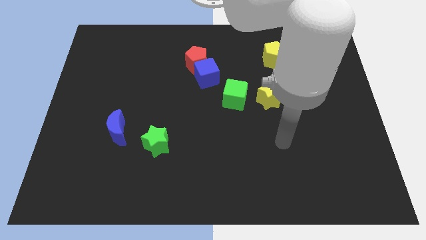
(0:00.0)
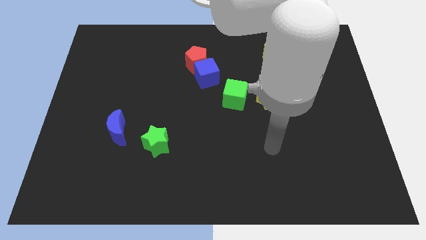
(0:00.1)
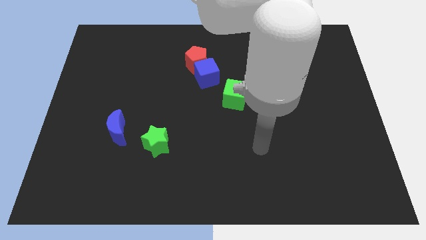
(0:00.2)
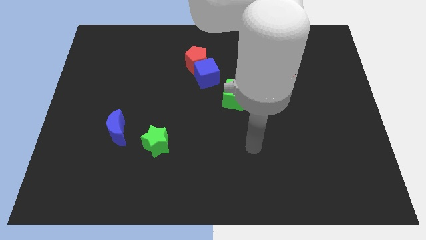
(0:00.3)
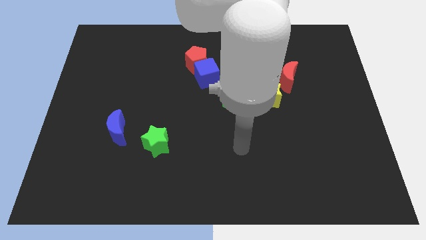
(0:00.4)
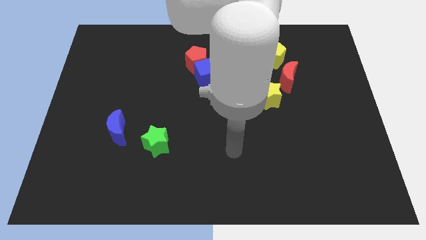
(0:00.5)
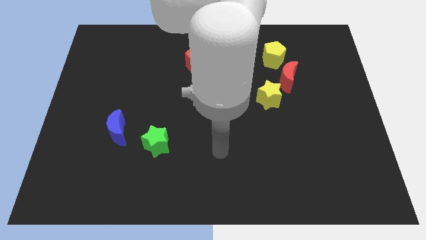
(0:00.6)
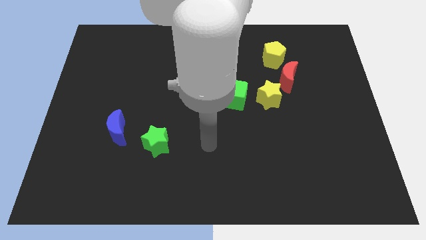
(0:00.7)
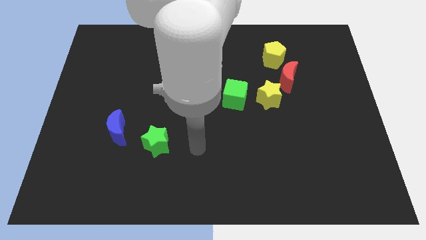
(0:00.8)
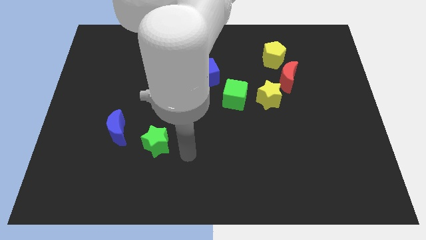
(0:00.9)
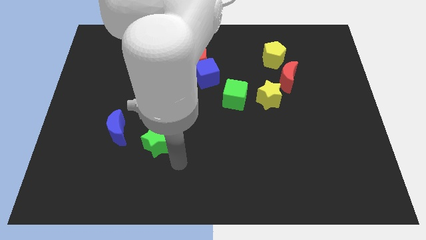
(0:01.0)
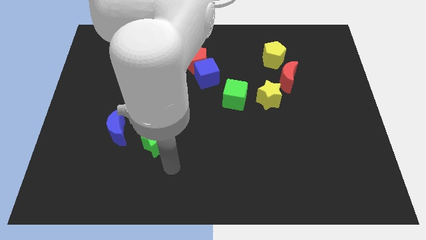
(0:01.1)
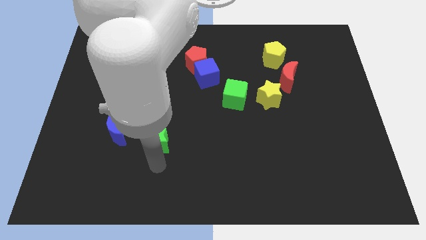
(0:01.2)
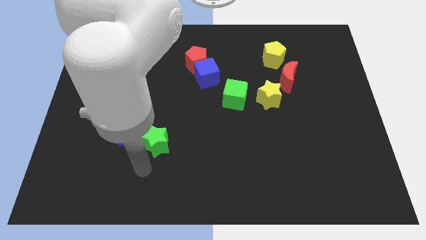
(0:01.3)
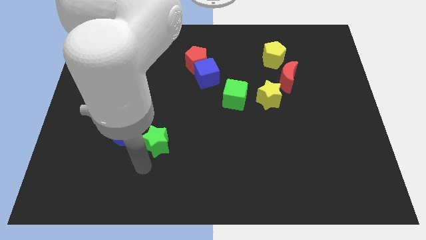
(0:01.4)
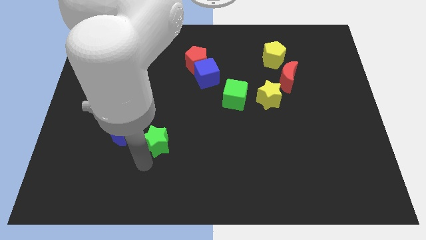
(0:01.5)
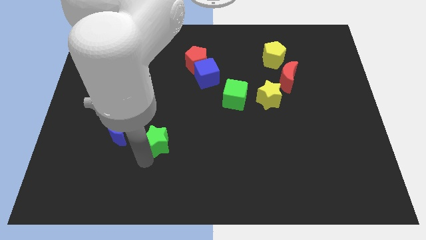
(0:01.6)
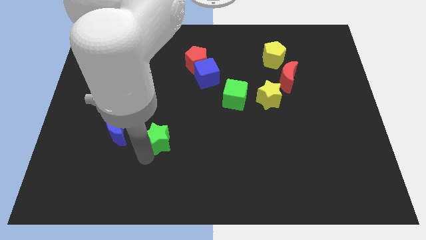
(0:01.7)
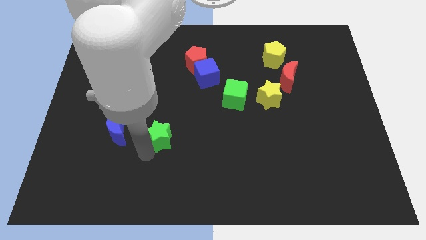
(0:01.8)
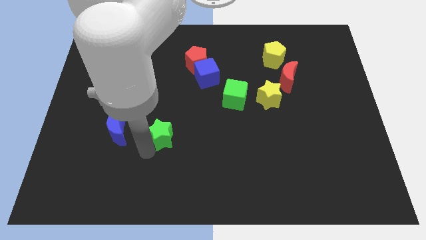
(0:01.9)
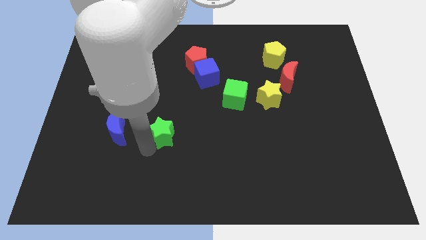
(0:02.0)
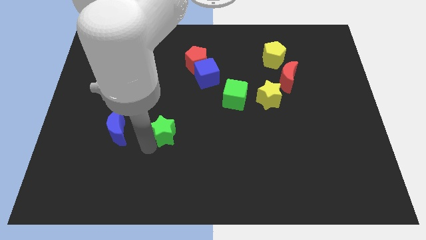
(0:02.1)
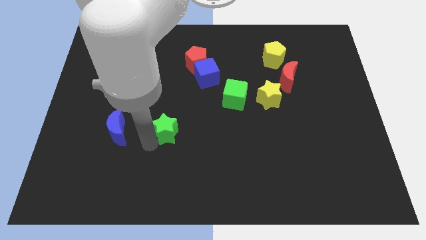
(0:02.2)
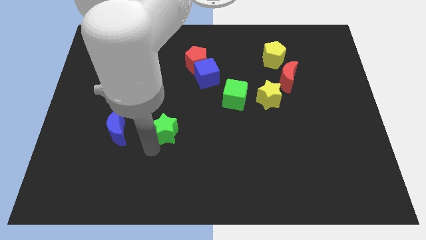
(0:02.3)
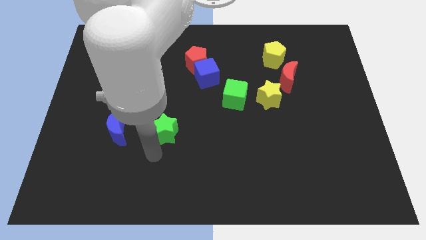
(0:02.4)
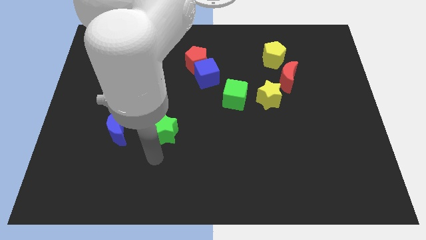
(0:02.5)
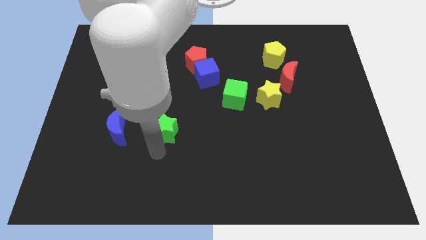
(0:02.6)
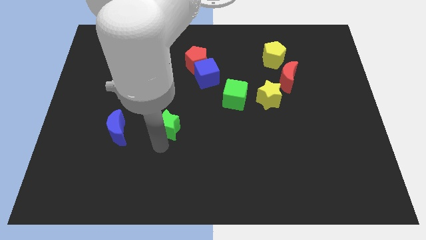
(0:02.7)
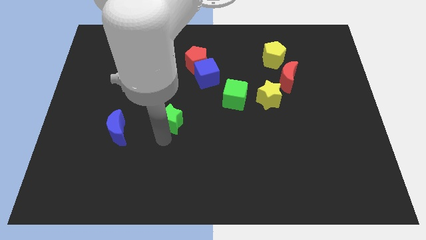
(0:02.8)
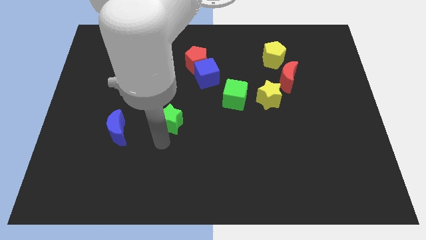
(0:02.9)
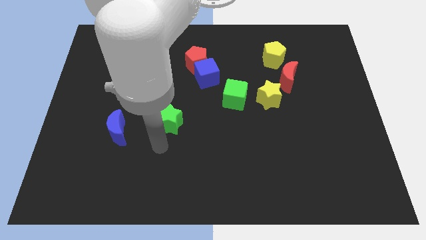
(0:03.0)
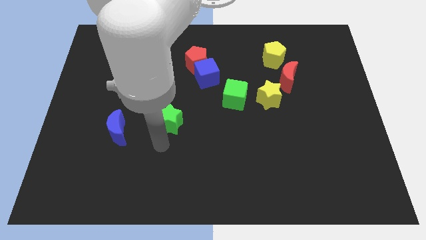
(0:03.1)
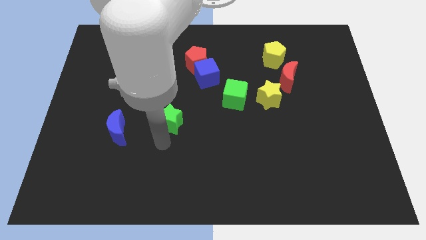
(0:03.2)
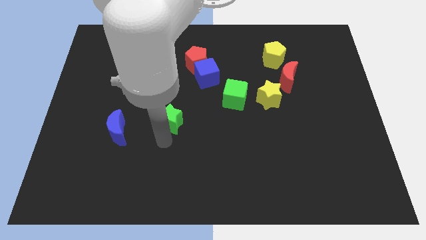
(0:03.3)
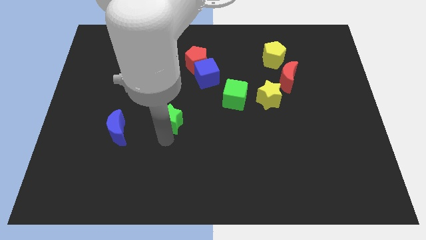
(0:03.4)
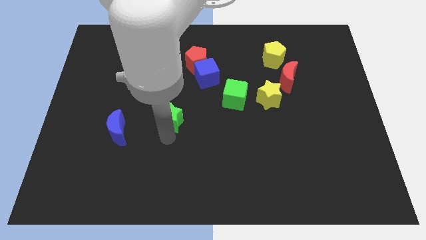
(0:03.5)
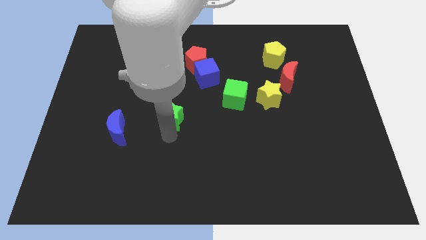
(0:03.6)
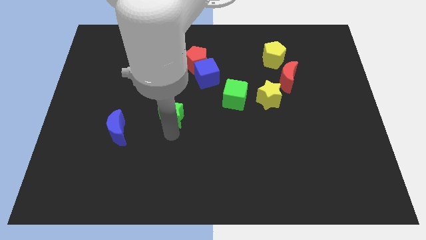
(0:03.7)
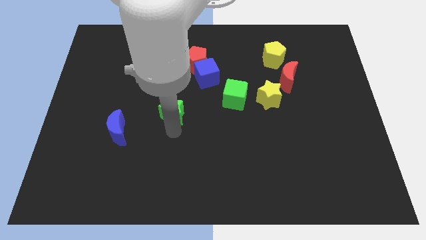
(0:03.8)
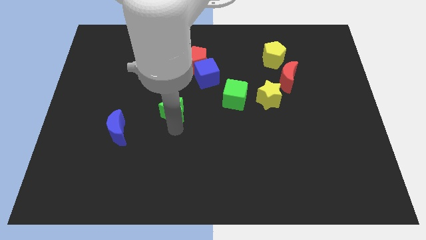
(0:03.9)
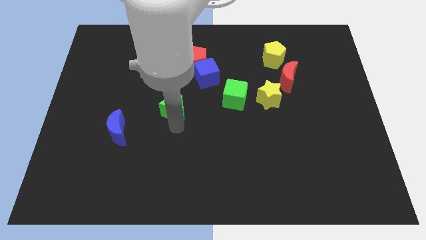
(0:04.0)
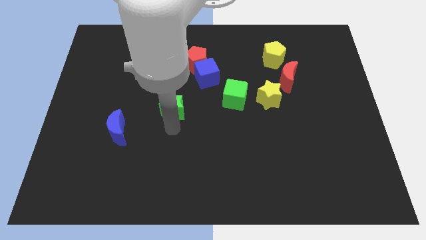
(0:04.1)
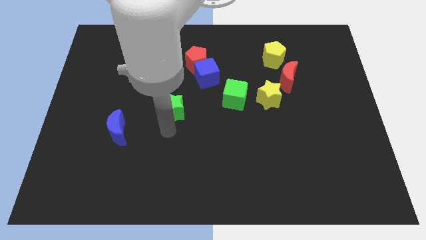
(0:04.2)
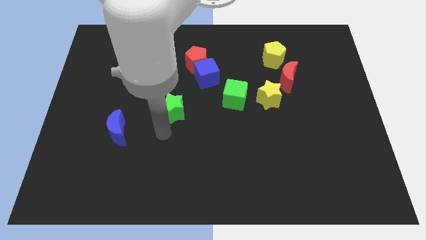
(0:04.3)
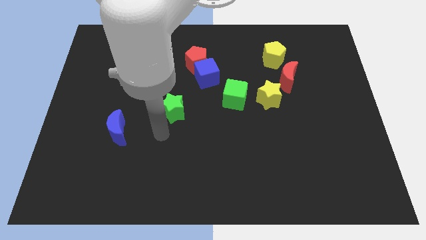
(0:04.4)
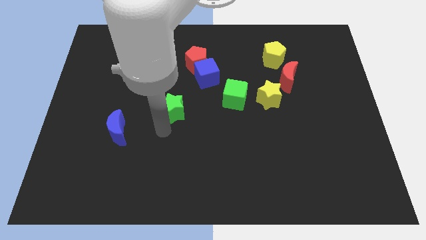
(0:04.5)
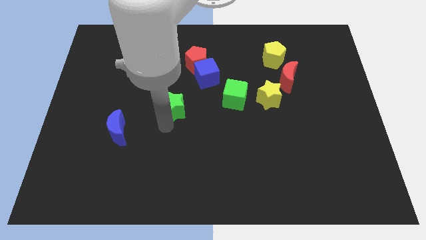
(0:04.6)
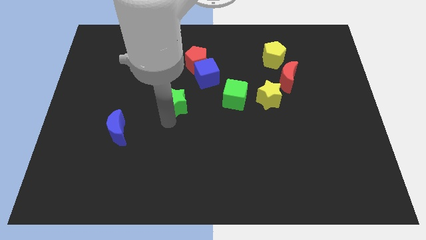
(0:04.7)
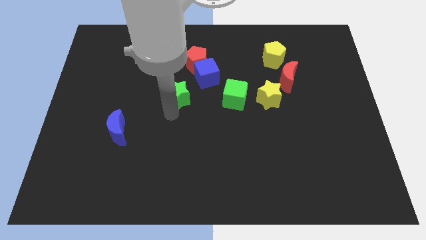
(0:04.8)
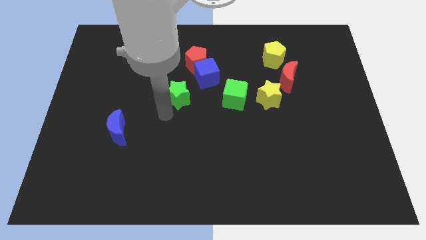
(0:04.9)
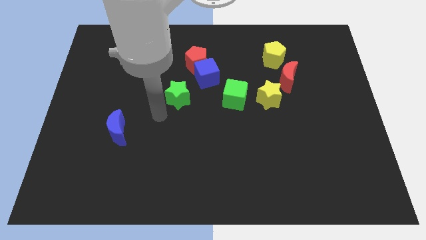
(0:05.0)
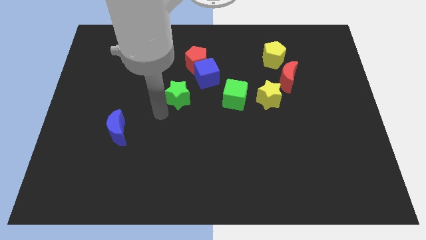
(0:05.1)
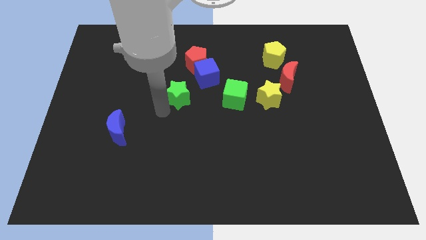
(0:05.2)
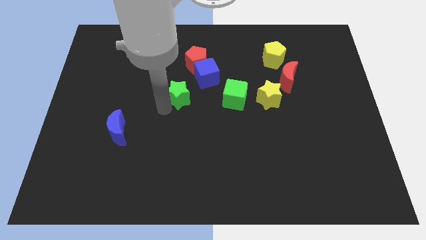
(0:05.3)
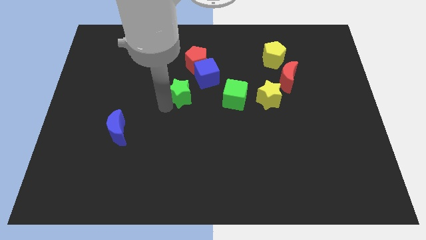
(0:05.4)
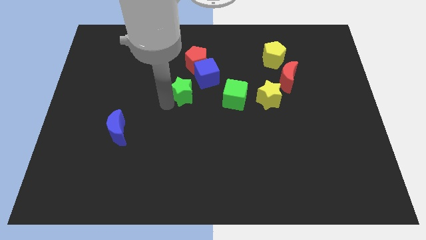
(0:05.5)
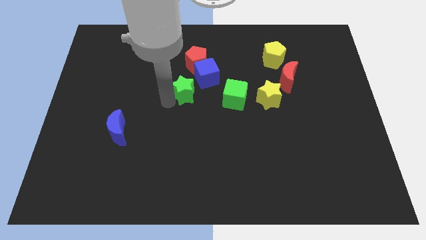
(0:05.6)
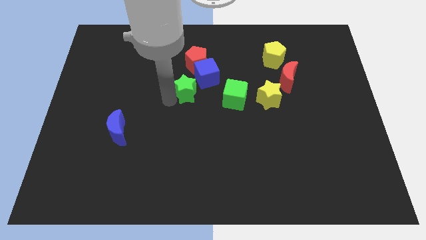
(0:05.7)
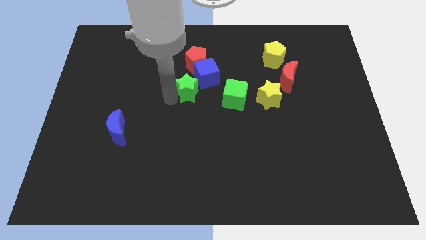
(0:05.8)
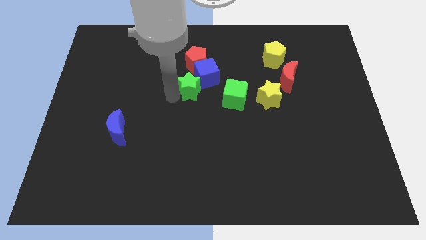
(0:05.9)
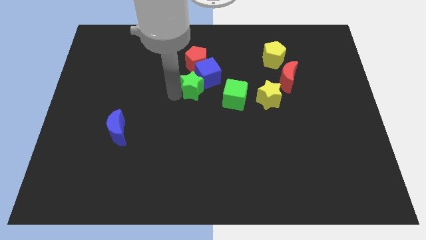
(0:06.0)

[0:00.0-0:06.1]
push the green star close to the blue cube

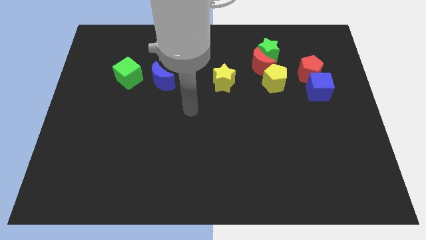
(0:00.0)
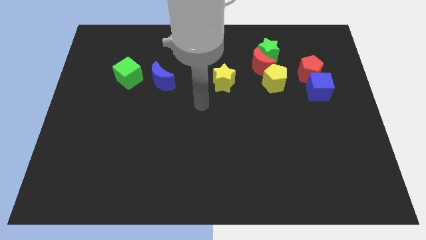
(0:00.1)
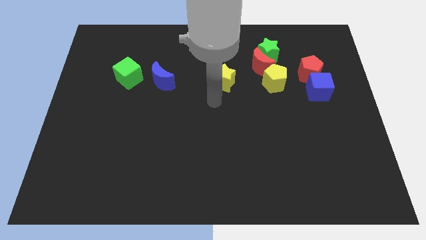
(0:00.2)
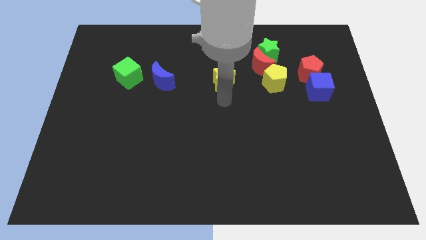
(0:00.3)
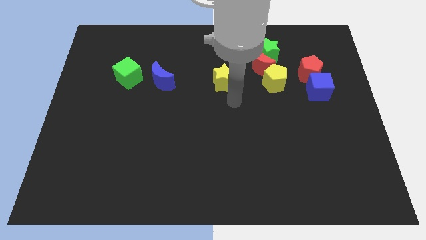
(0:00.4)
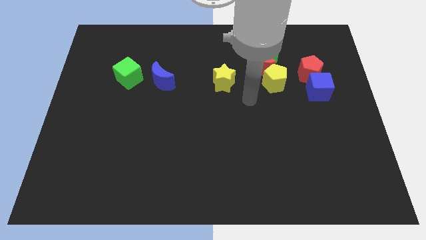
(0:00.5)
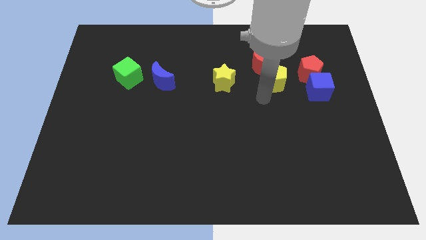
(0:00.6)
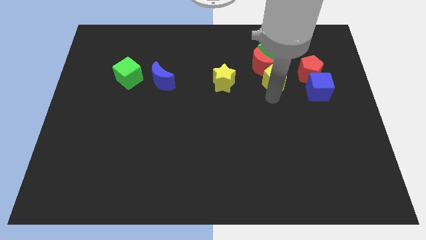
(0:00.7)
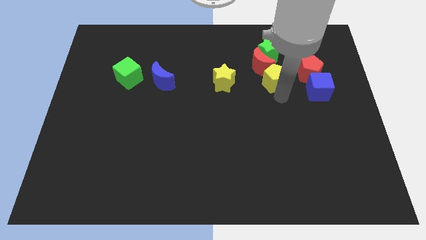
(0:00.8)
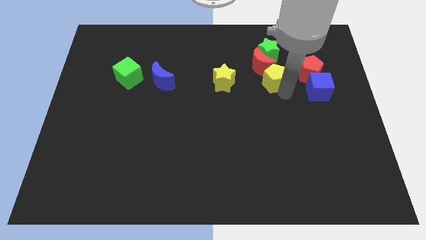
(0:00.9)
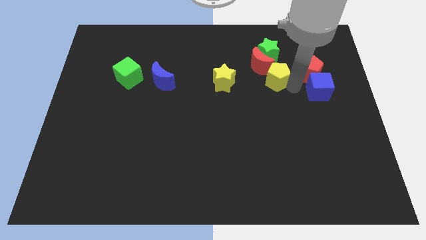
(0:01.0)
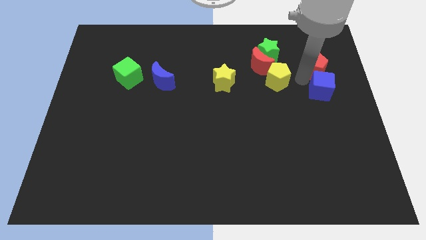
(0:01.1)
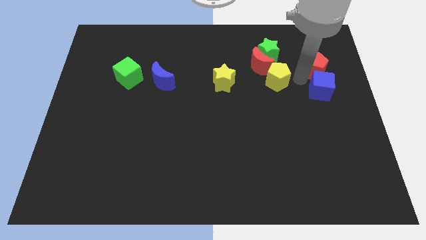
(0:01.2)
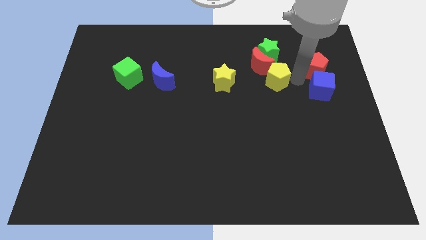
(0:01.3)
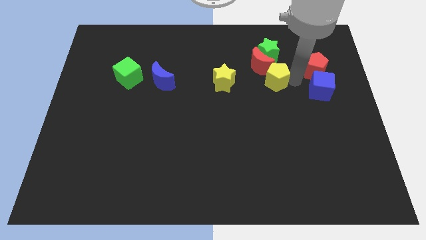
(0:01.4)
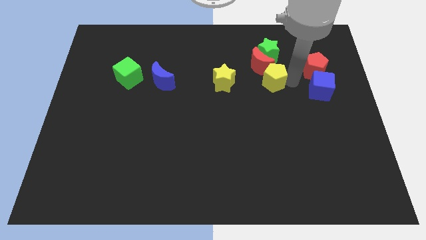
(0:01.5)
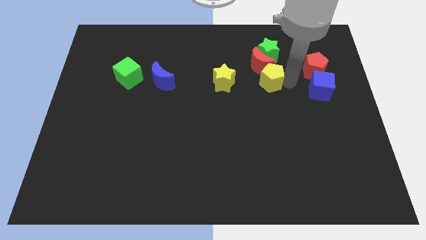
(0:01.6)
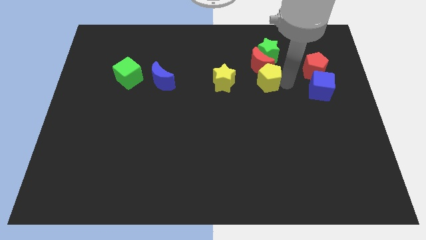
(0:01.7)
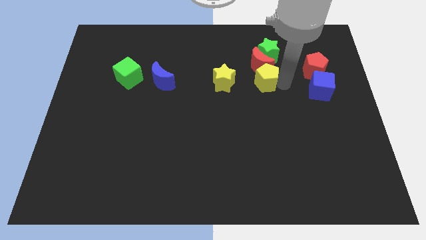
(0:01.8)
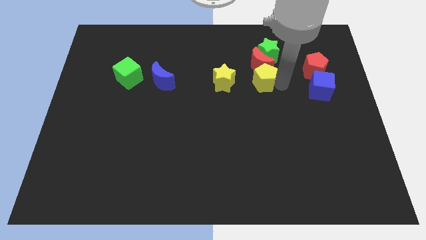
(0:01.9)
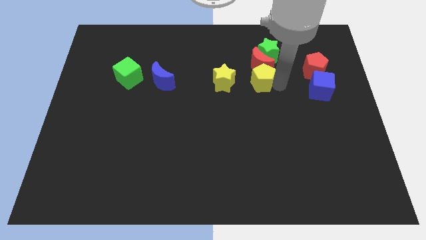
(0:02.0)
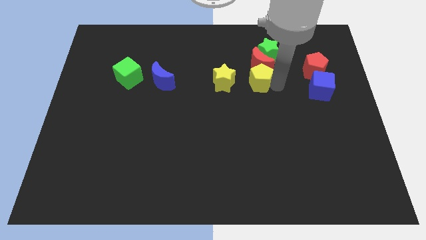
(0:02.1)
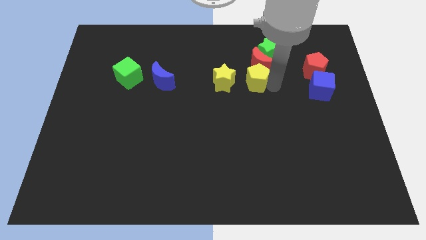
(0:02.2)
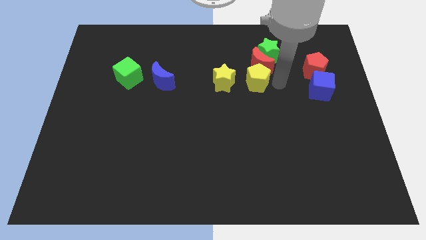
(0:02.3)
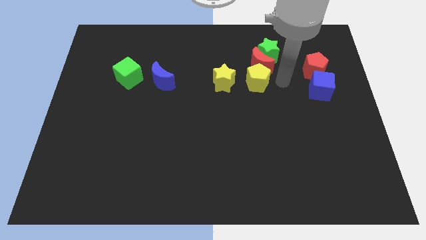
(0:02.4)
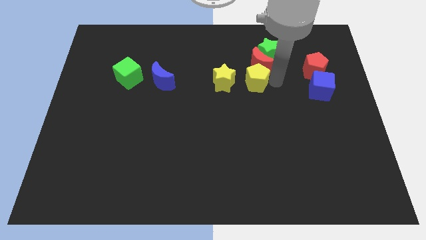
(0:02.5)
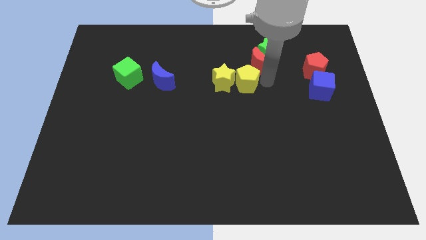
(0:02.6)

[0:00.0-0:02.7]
push the yellow pentagon towards the yellow star
